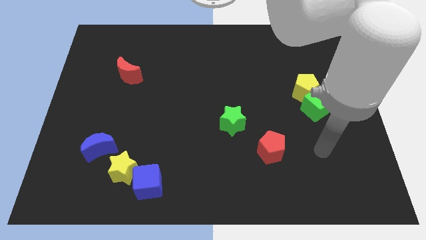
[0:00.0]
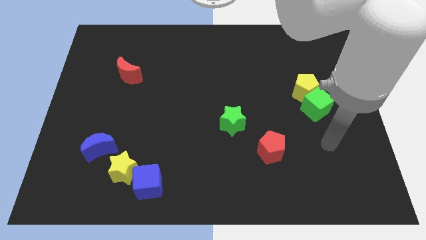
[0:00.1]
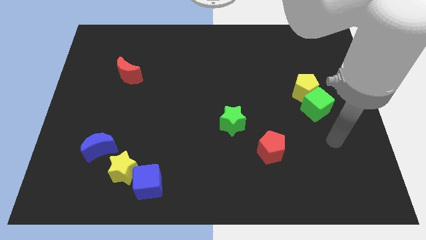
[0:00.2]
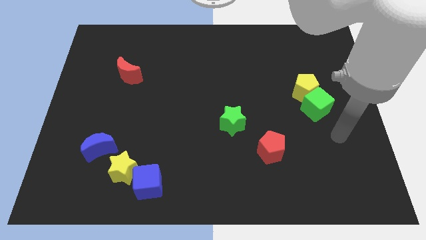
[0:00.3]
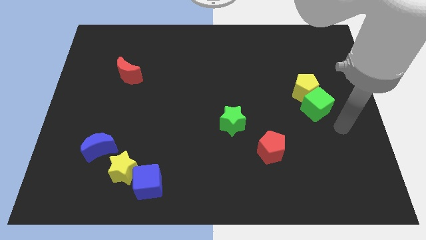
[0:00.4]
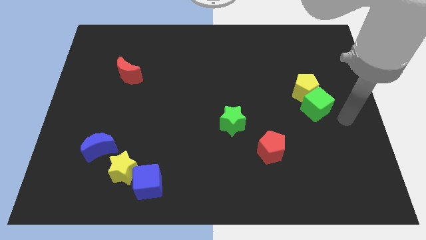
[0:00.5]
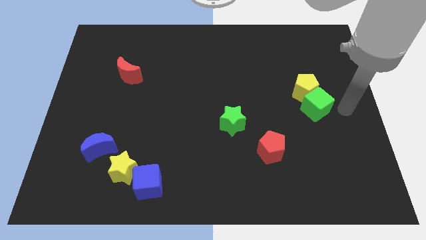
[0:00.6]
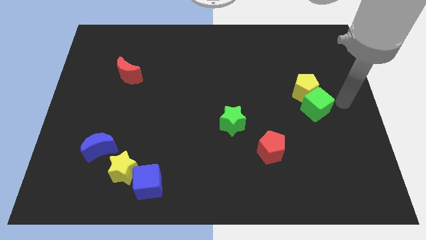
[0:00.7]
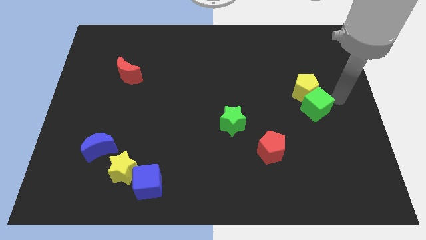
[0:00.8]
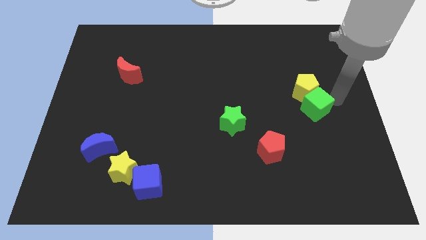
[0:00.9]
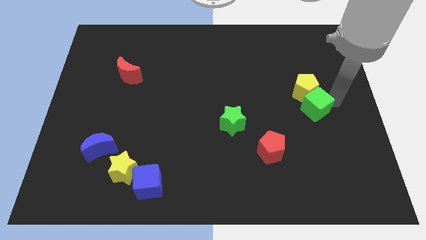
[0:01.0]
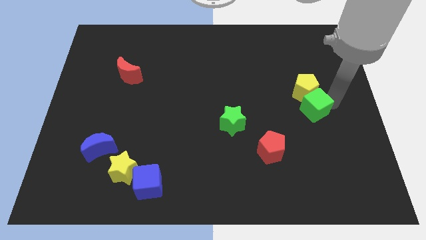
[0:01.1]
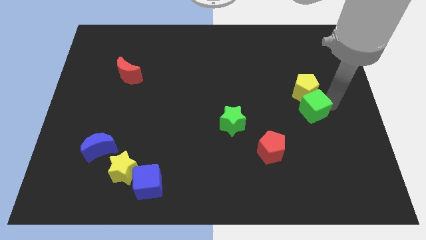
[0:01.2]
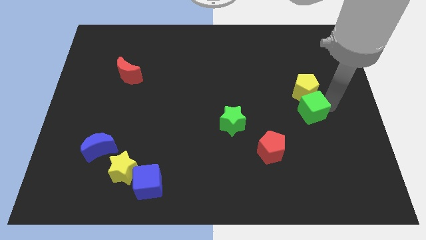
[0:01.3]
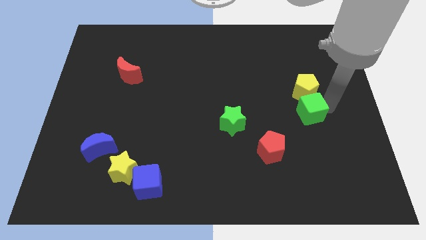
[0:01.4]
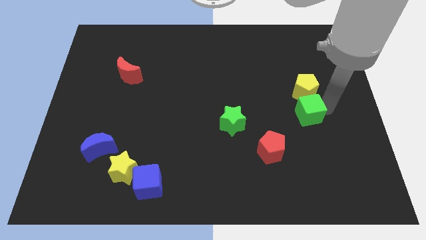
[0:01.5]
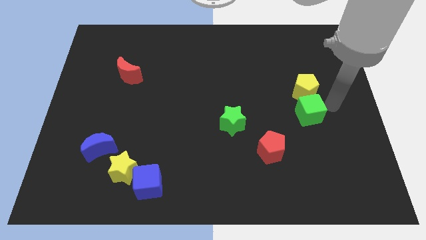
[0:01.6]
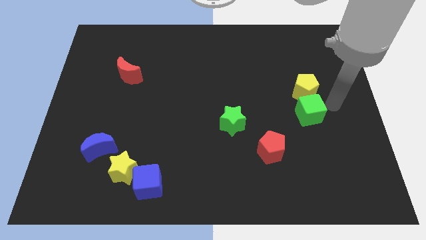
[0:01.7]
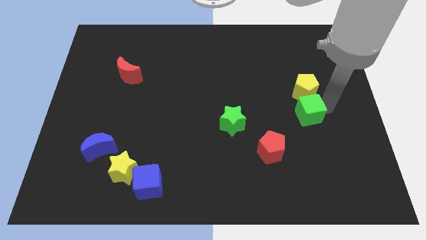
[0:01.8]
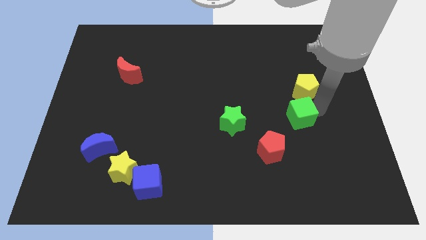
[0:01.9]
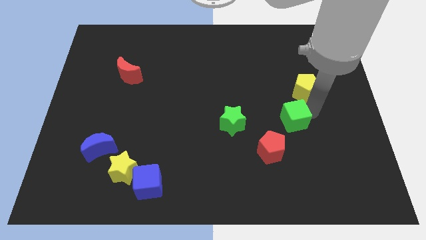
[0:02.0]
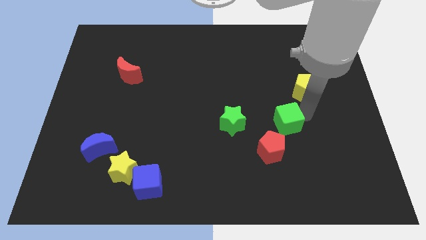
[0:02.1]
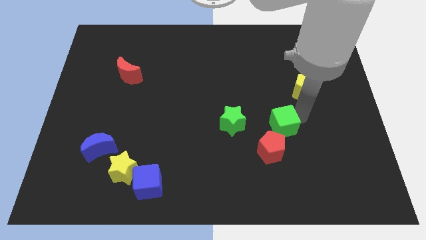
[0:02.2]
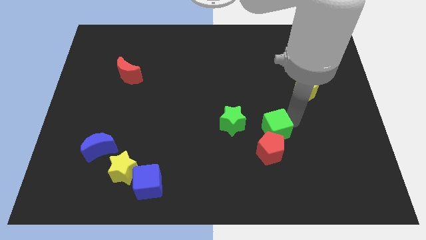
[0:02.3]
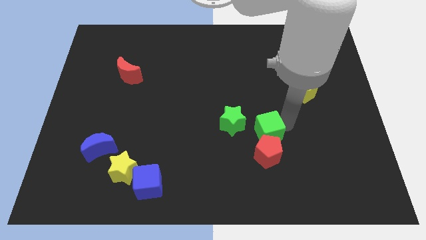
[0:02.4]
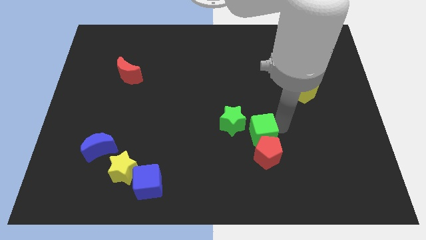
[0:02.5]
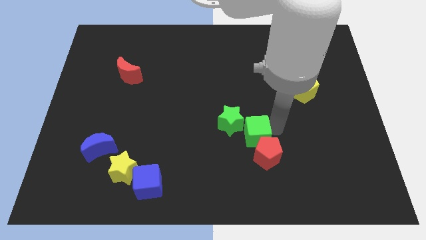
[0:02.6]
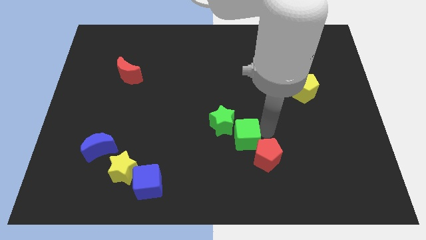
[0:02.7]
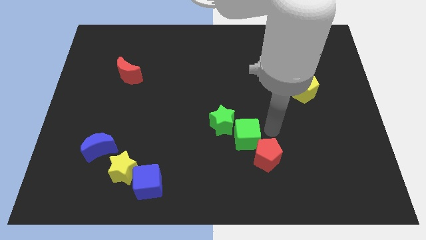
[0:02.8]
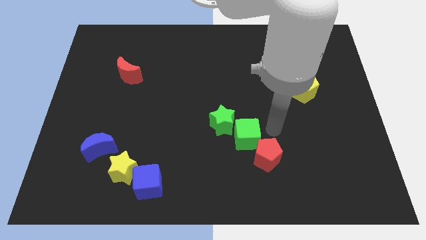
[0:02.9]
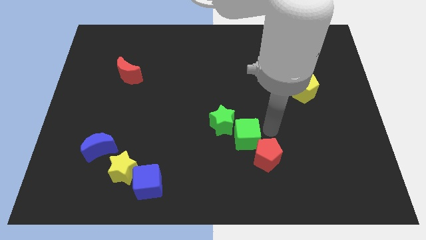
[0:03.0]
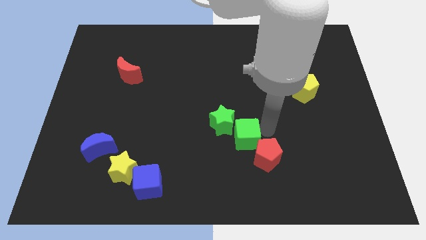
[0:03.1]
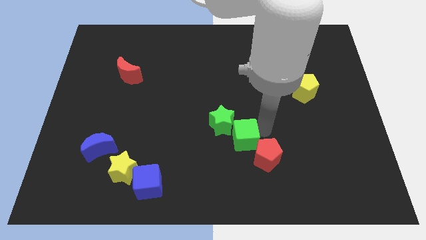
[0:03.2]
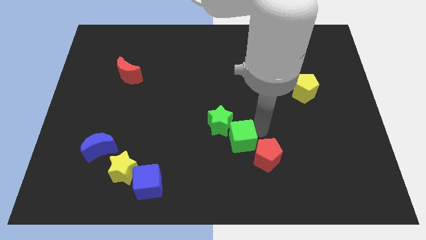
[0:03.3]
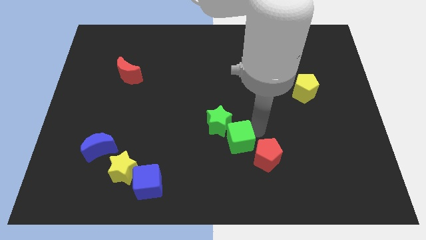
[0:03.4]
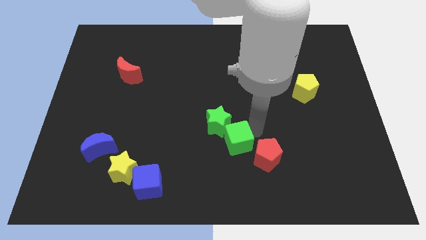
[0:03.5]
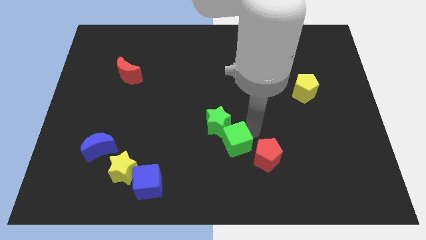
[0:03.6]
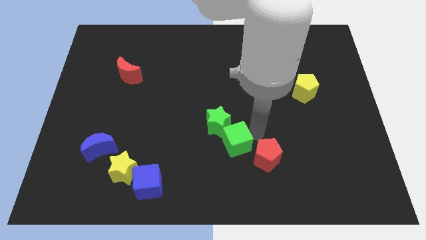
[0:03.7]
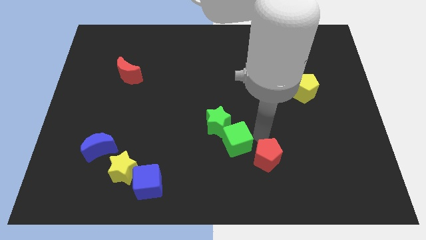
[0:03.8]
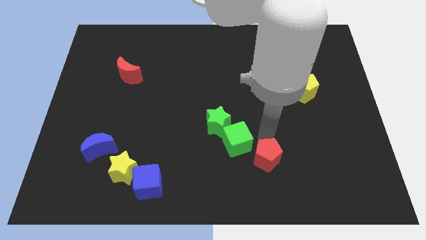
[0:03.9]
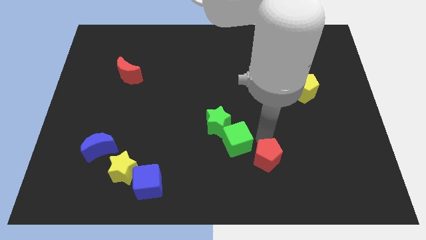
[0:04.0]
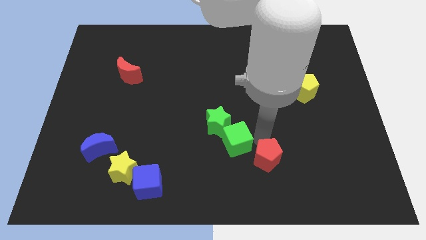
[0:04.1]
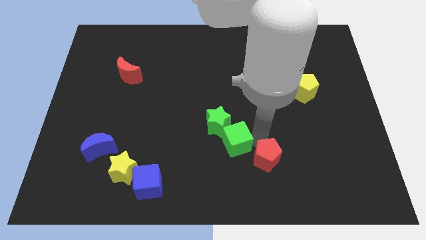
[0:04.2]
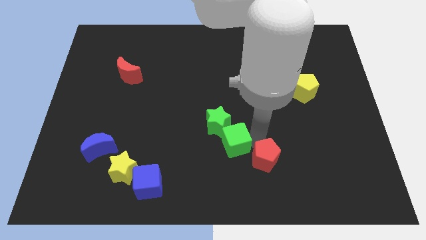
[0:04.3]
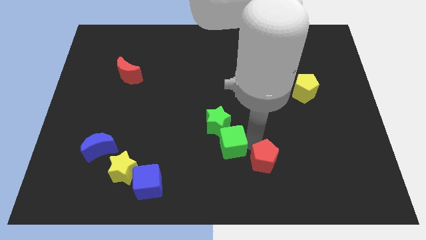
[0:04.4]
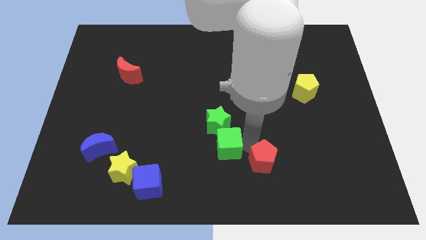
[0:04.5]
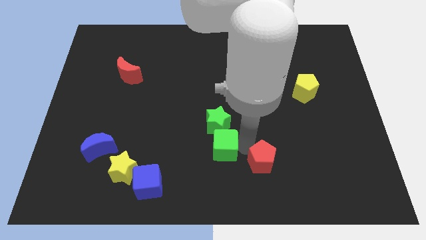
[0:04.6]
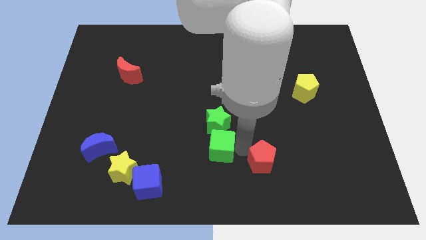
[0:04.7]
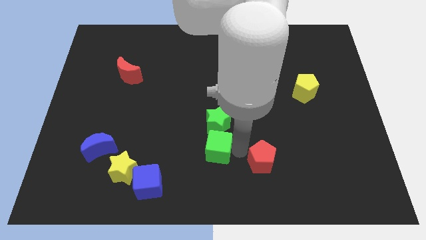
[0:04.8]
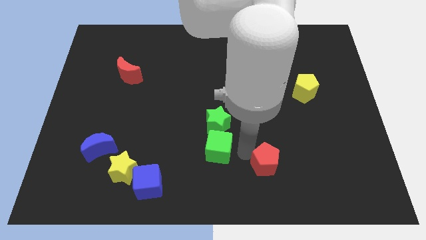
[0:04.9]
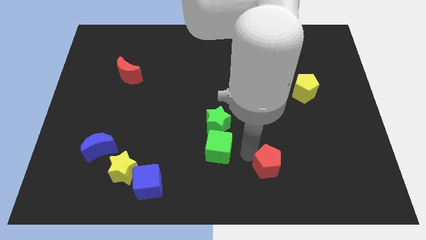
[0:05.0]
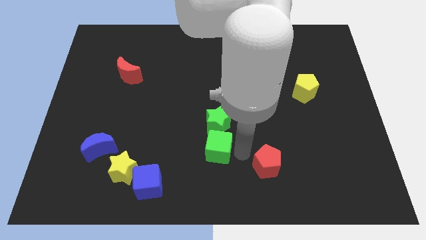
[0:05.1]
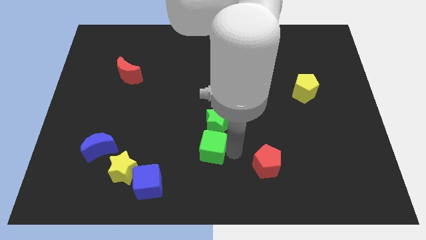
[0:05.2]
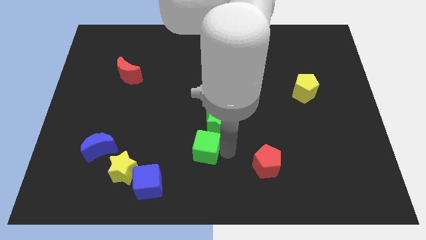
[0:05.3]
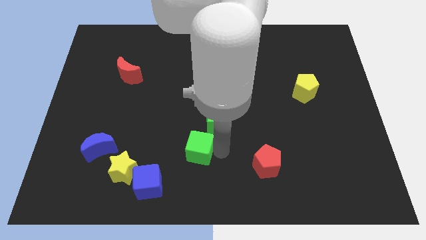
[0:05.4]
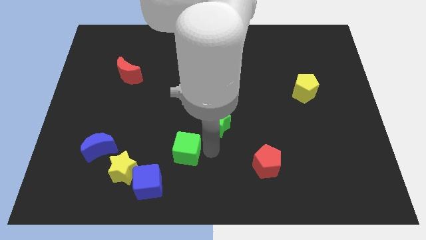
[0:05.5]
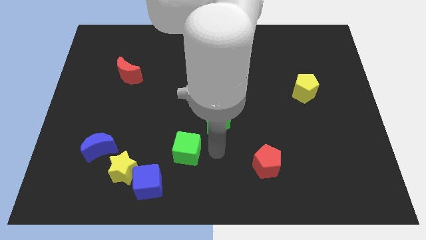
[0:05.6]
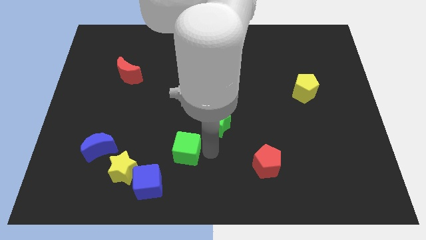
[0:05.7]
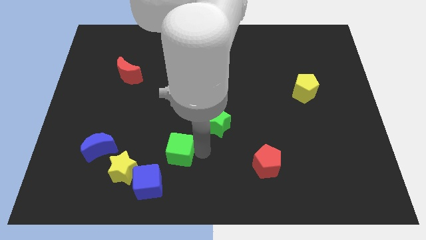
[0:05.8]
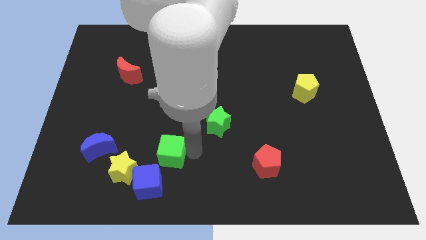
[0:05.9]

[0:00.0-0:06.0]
slide the green cube to the top right of the yellow star

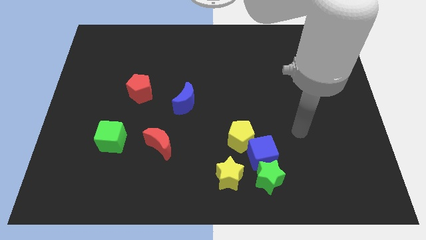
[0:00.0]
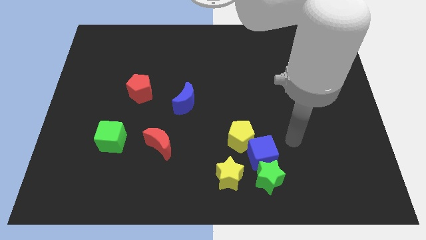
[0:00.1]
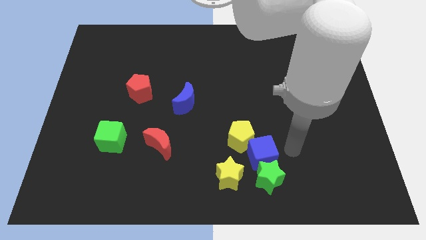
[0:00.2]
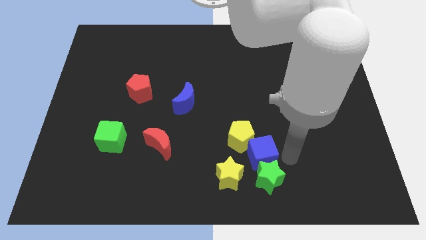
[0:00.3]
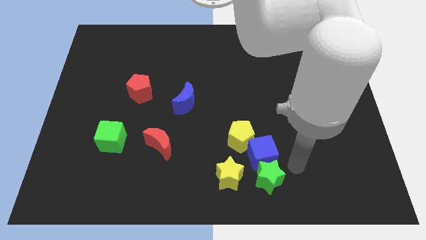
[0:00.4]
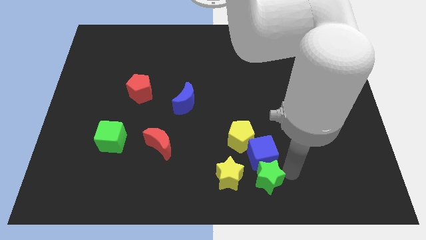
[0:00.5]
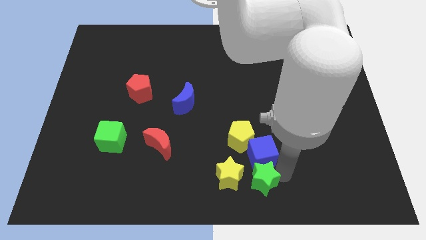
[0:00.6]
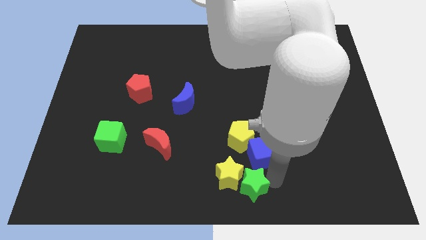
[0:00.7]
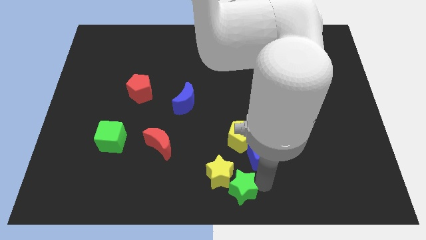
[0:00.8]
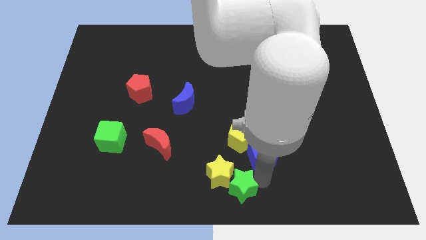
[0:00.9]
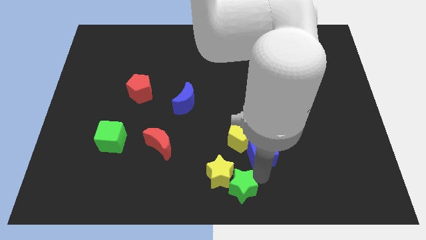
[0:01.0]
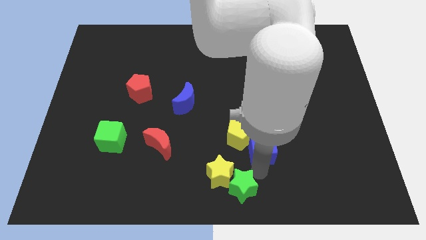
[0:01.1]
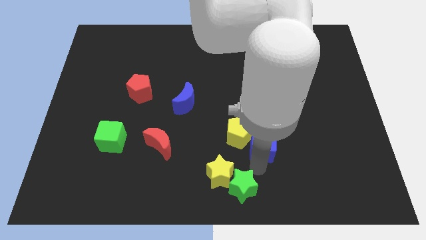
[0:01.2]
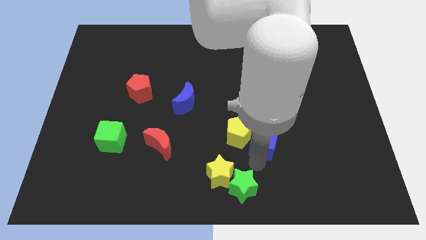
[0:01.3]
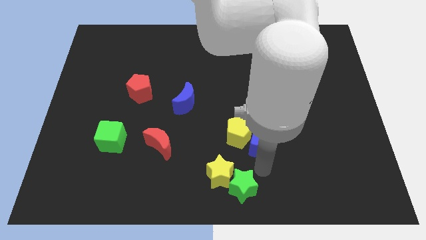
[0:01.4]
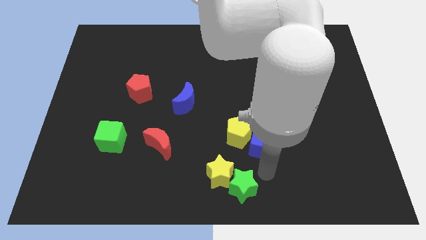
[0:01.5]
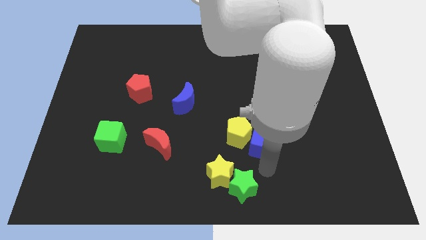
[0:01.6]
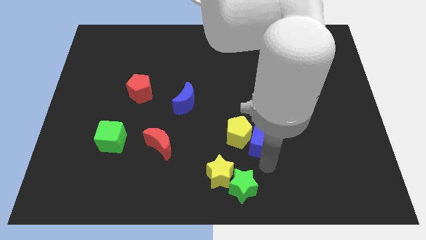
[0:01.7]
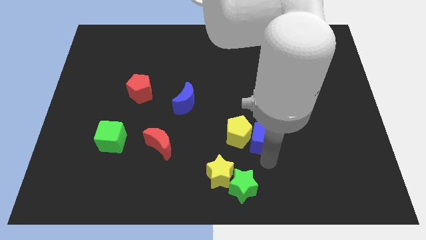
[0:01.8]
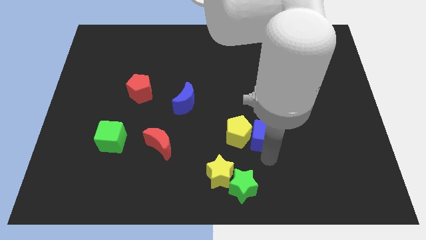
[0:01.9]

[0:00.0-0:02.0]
put the blue cube diagonally up and to the right of the yellow pentagon
